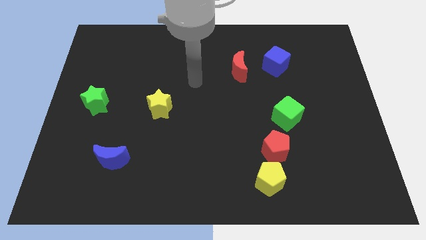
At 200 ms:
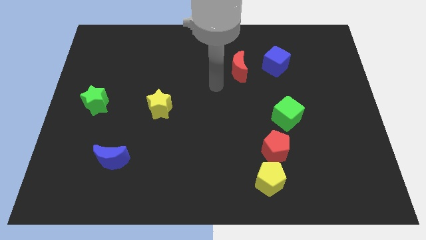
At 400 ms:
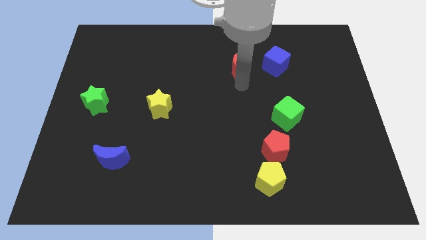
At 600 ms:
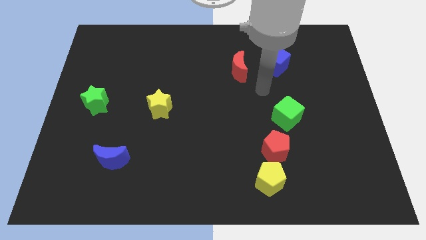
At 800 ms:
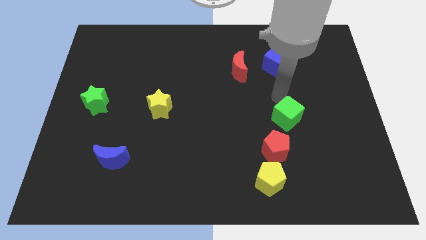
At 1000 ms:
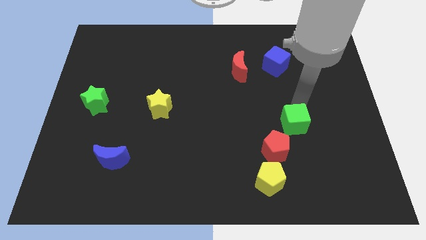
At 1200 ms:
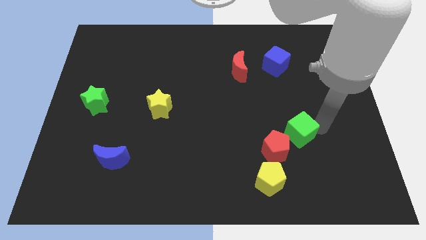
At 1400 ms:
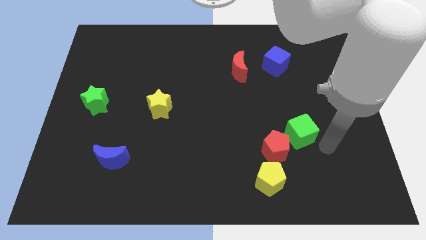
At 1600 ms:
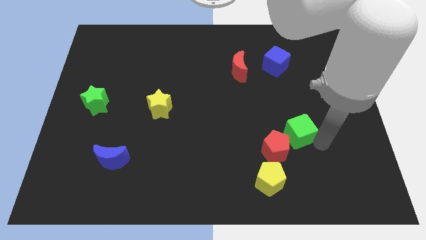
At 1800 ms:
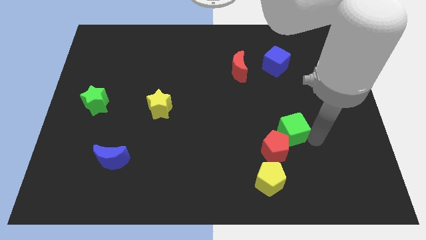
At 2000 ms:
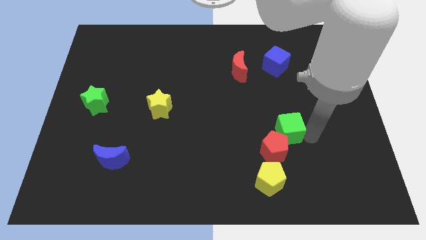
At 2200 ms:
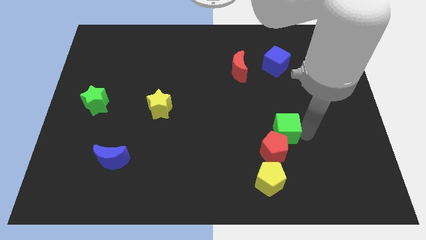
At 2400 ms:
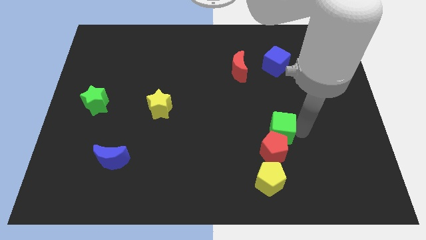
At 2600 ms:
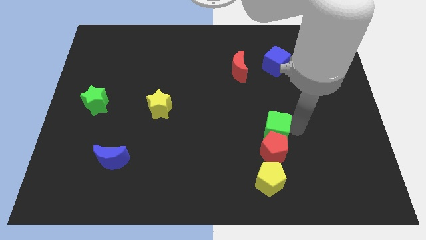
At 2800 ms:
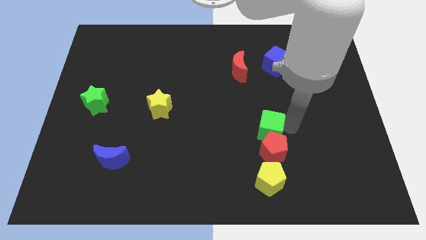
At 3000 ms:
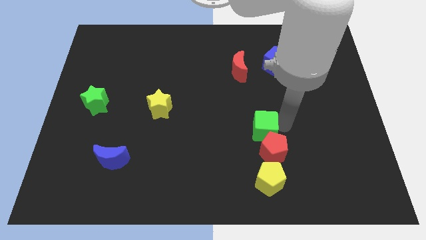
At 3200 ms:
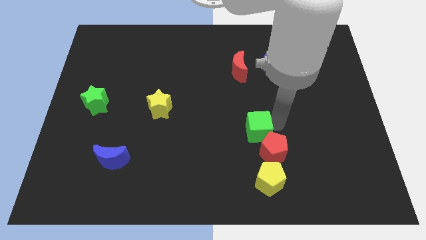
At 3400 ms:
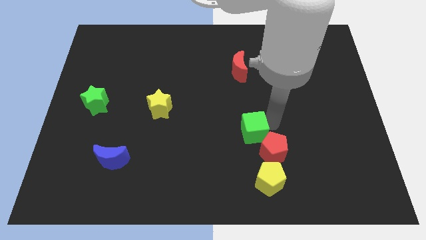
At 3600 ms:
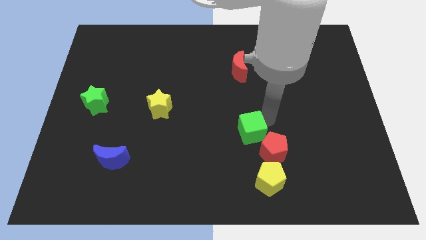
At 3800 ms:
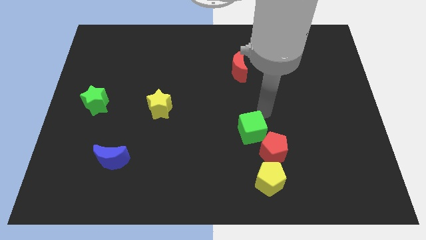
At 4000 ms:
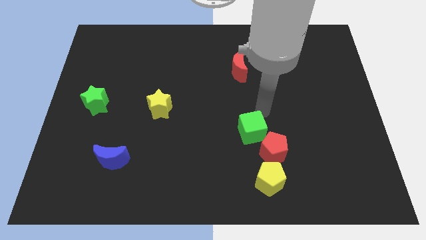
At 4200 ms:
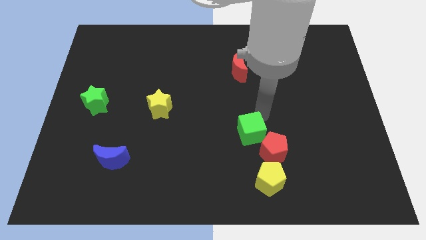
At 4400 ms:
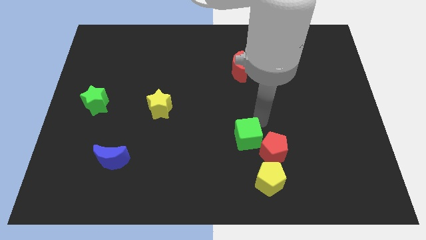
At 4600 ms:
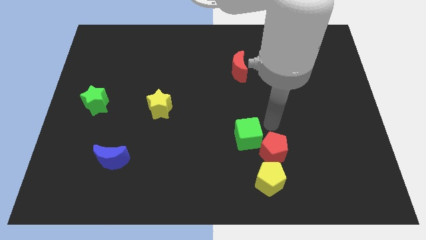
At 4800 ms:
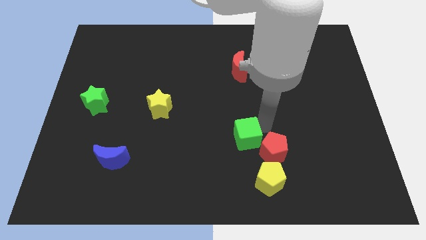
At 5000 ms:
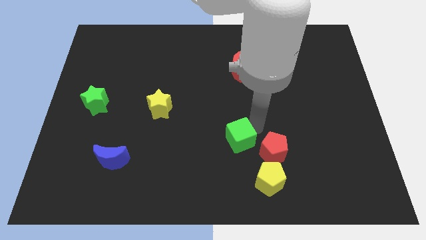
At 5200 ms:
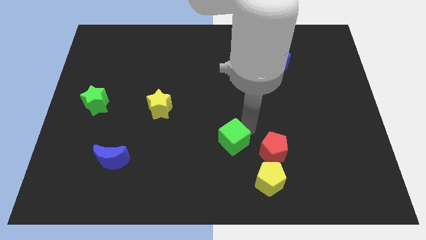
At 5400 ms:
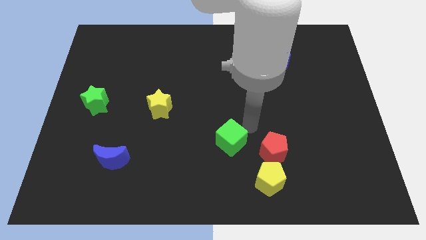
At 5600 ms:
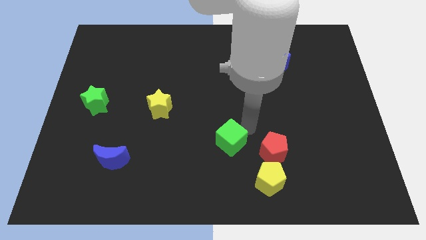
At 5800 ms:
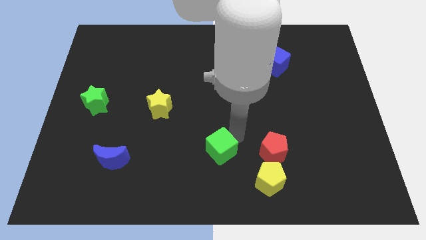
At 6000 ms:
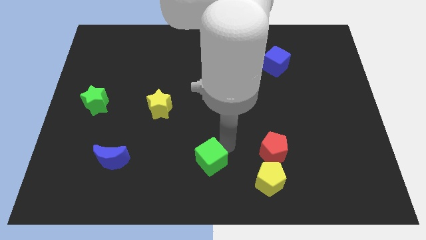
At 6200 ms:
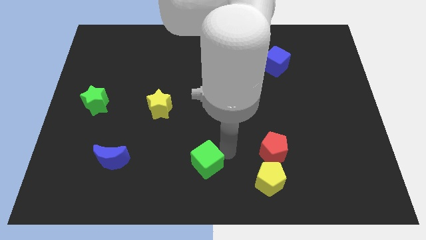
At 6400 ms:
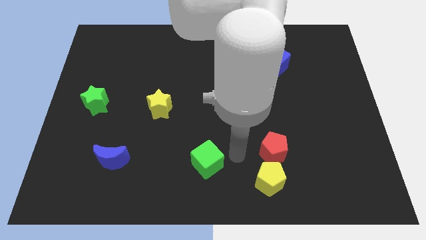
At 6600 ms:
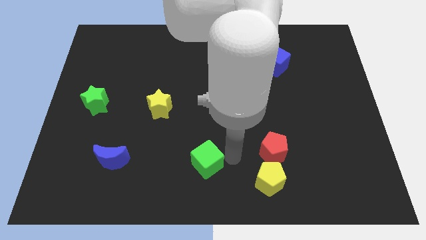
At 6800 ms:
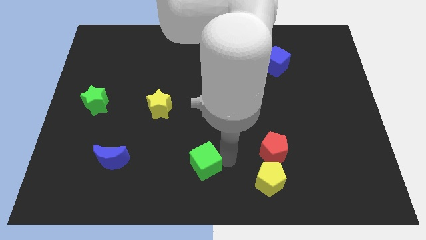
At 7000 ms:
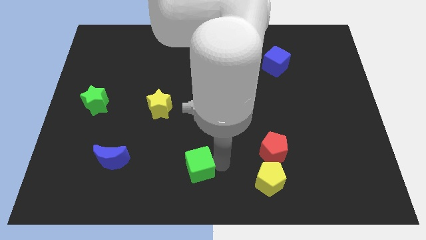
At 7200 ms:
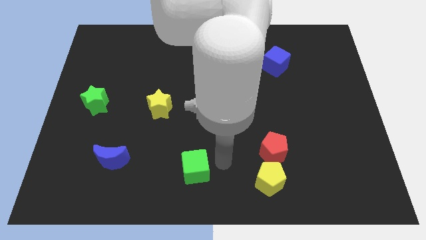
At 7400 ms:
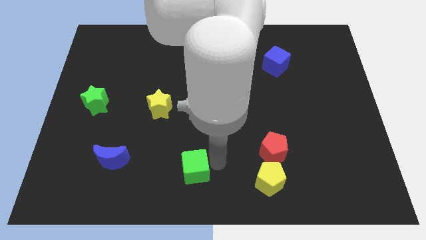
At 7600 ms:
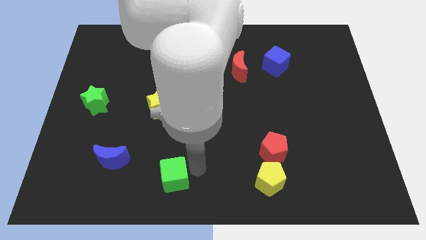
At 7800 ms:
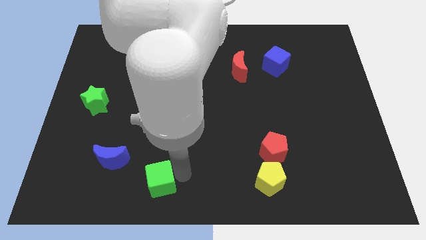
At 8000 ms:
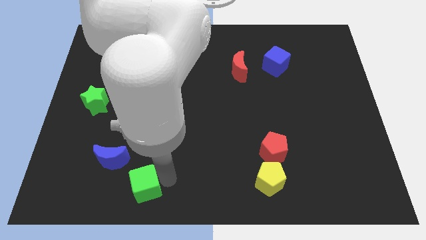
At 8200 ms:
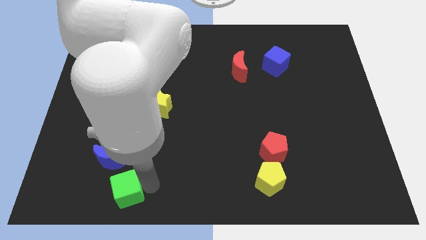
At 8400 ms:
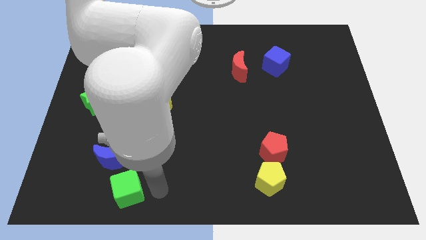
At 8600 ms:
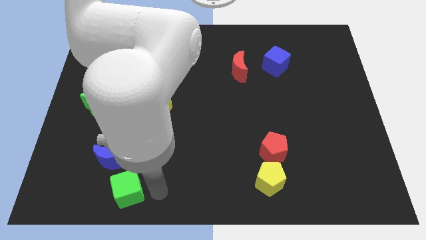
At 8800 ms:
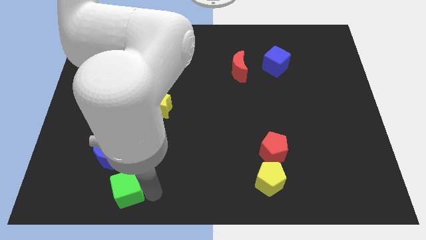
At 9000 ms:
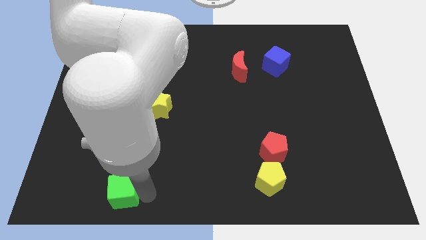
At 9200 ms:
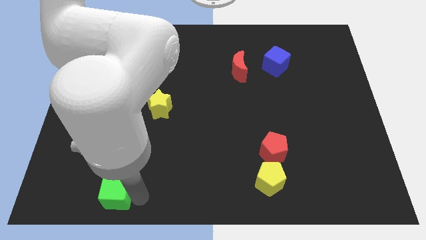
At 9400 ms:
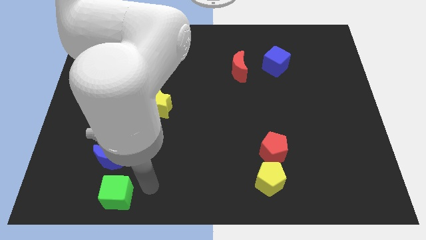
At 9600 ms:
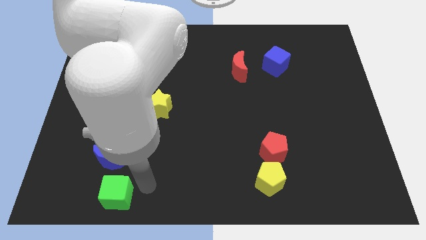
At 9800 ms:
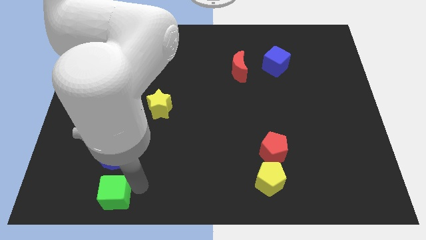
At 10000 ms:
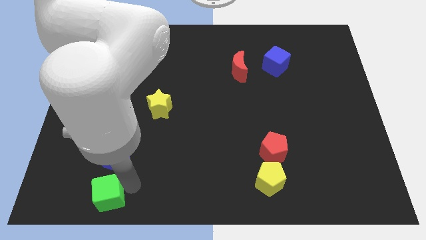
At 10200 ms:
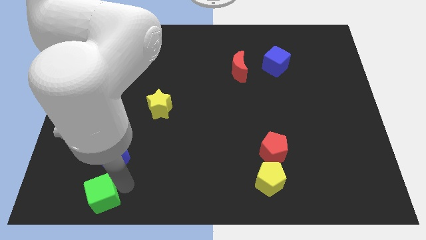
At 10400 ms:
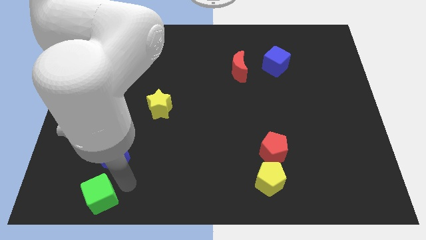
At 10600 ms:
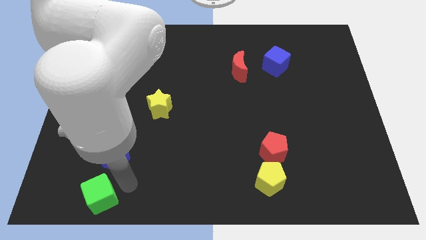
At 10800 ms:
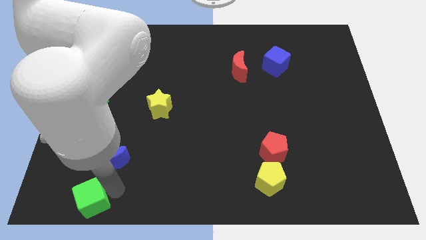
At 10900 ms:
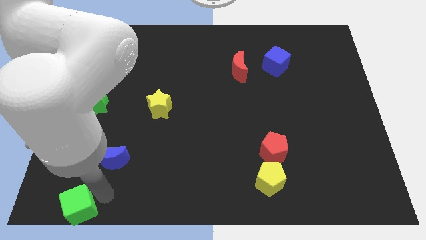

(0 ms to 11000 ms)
move the green cube to the bottom left
